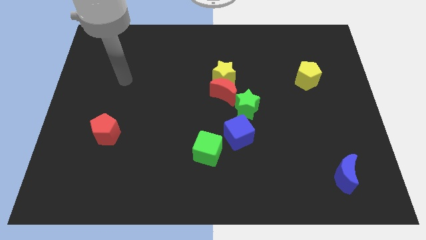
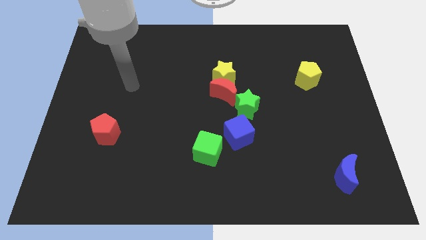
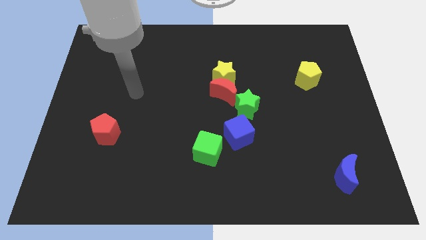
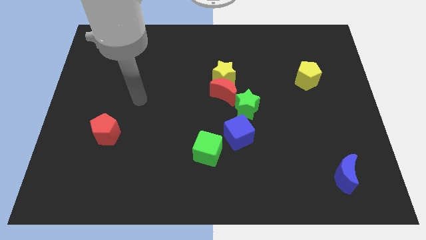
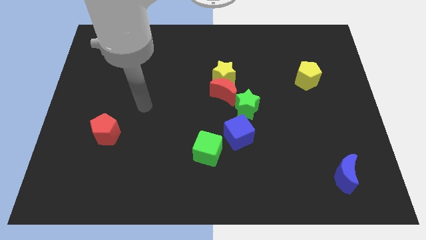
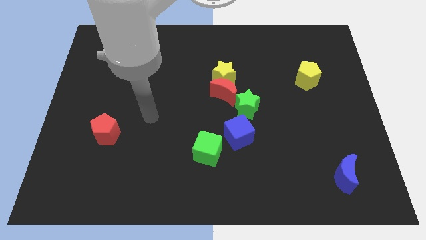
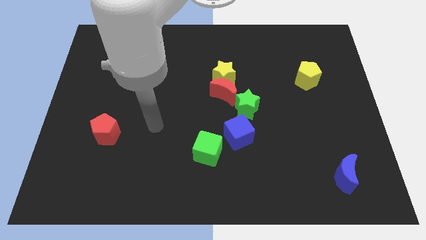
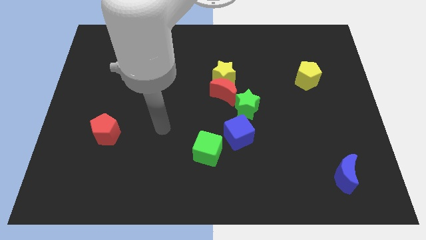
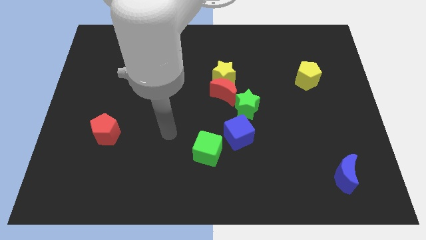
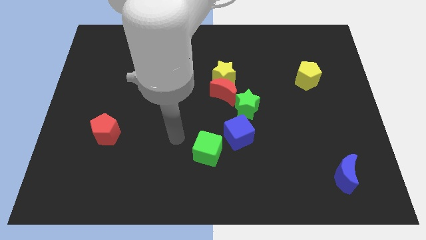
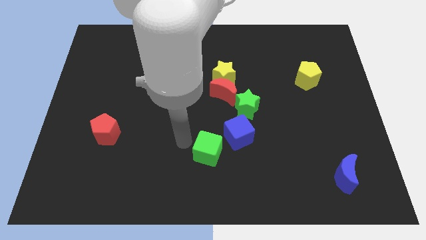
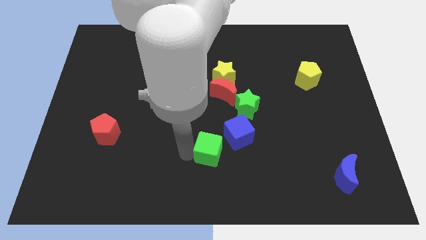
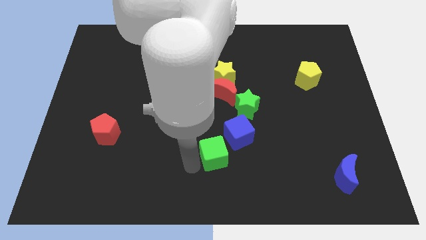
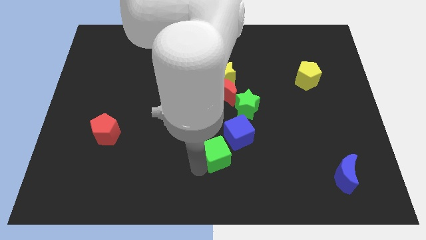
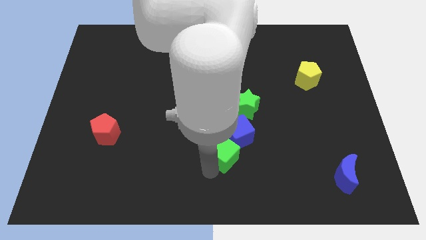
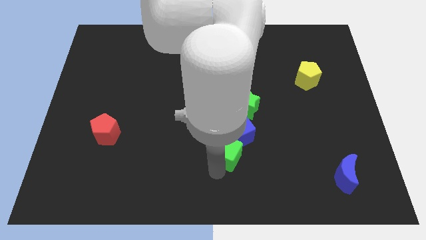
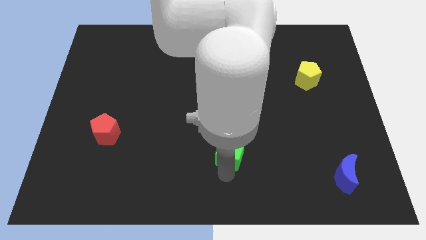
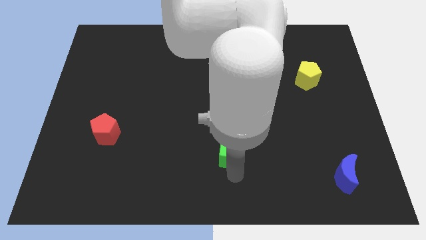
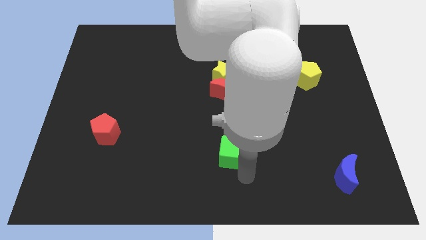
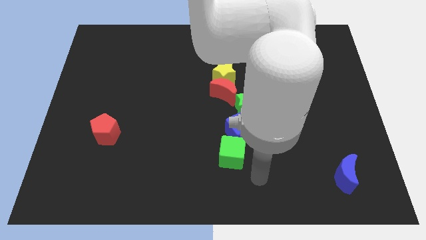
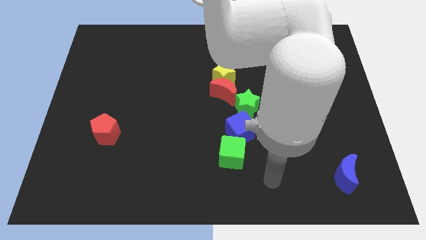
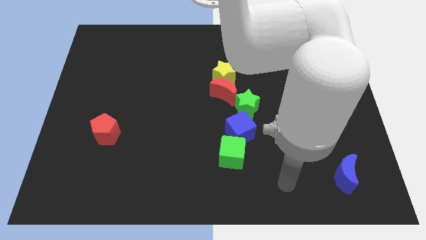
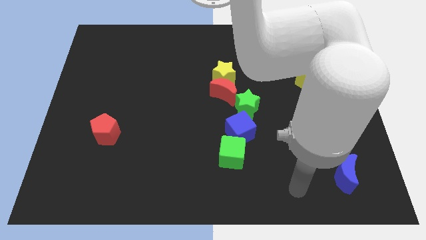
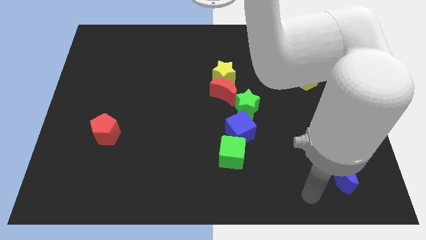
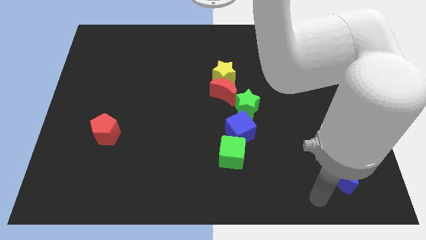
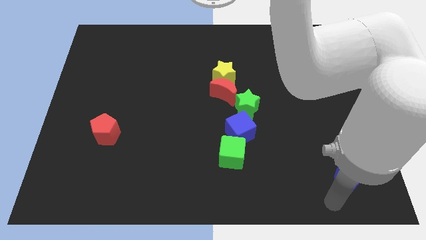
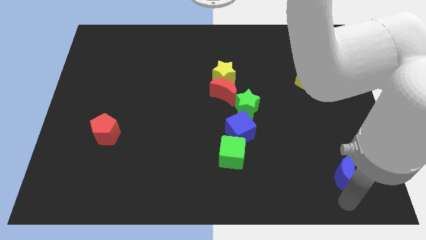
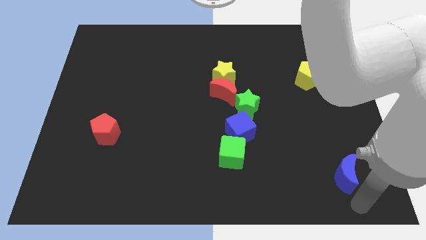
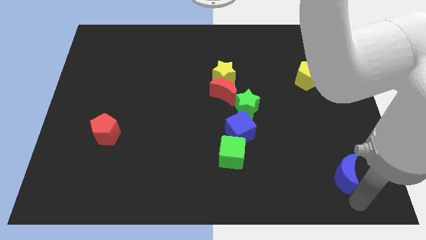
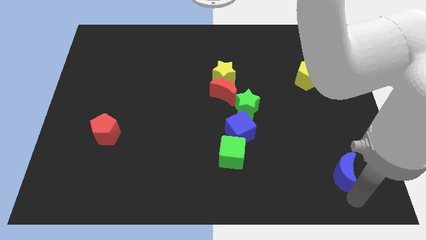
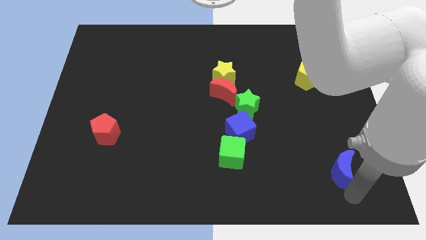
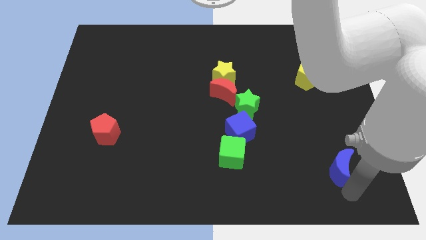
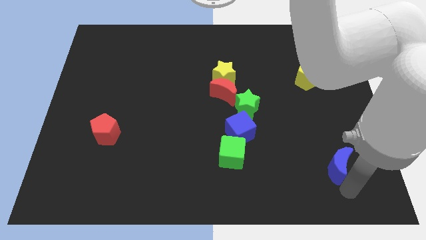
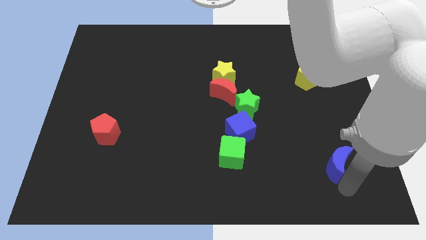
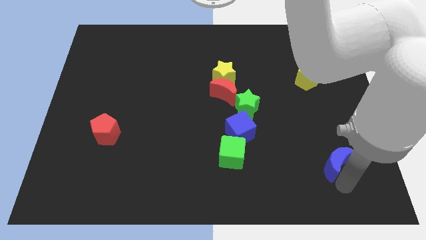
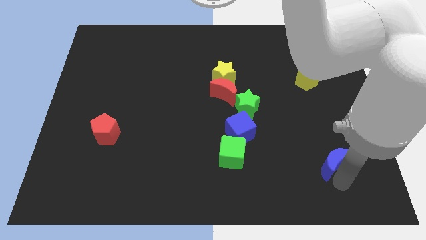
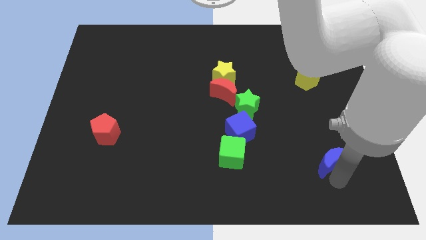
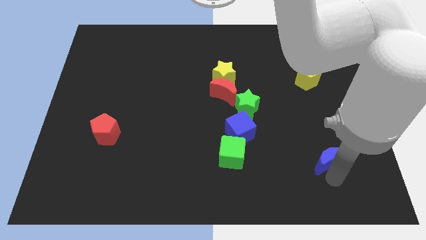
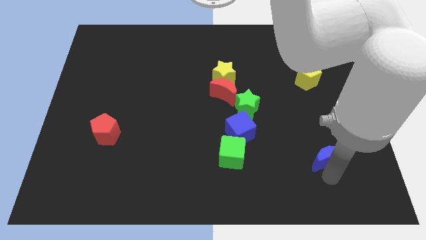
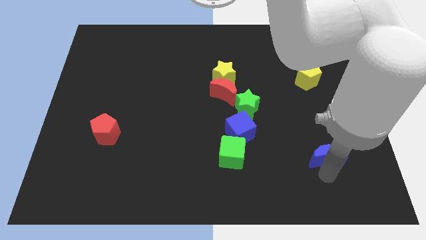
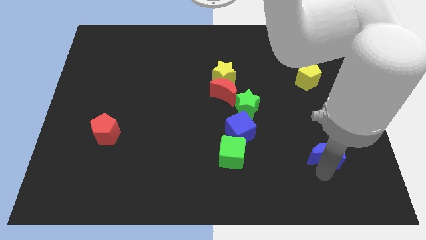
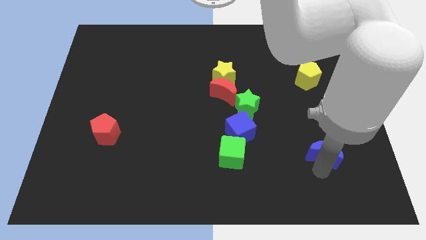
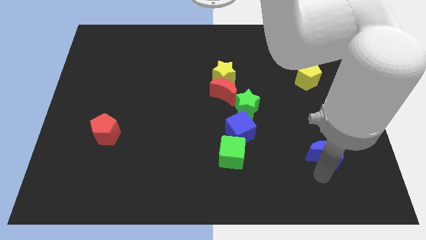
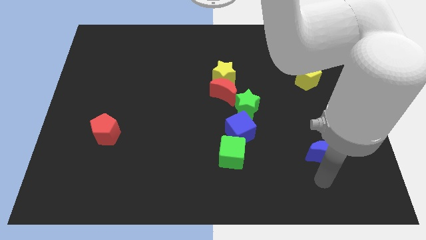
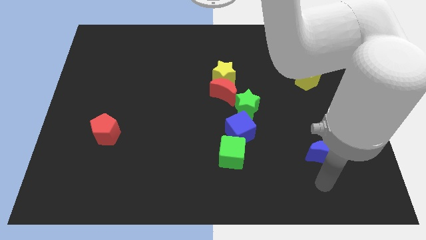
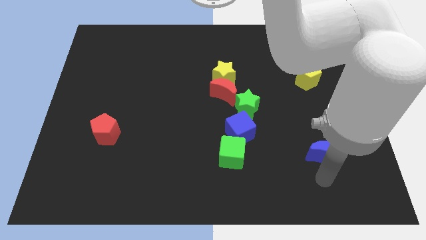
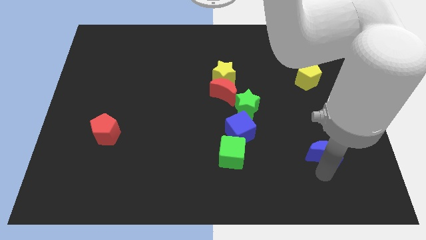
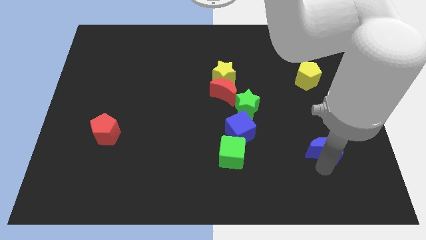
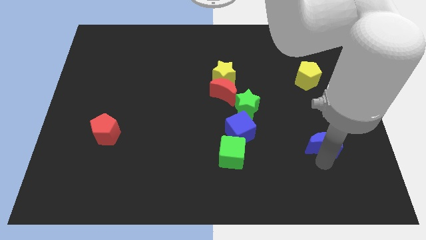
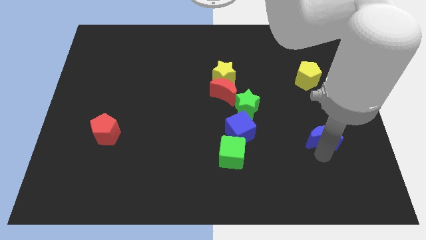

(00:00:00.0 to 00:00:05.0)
slightly push the blue moon upwards

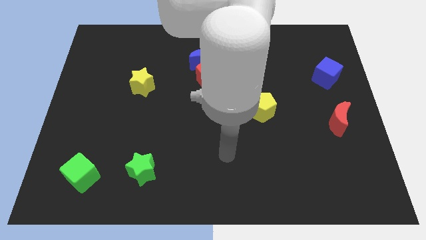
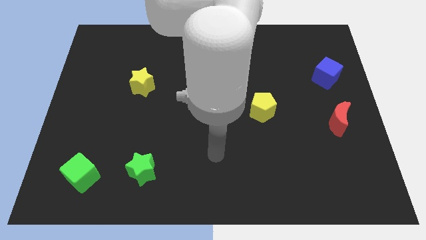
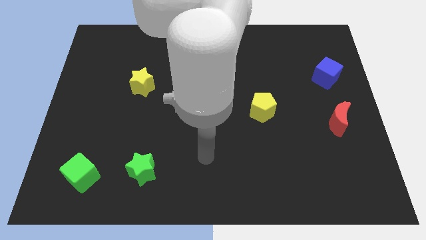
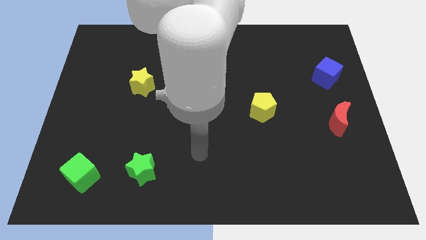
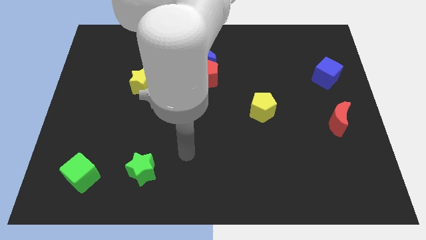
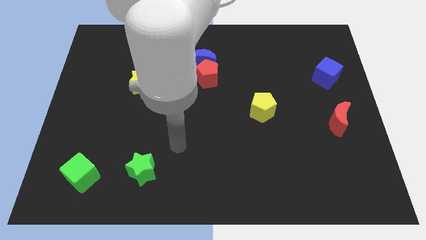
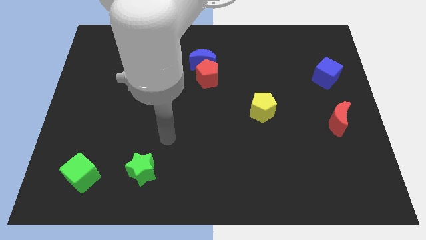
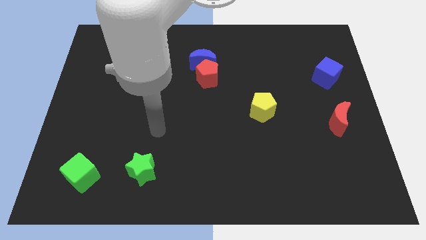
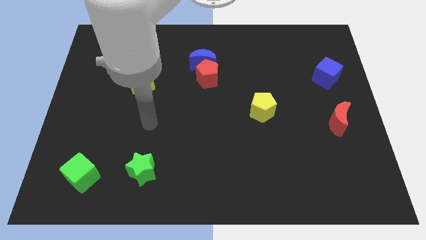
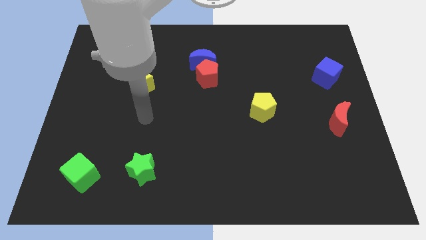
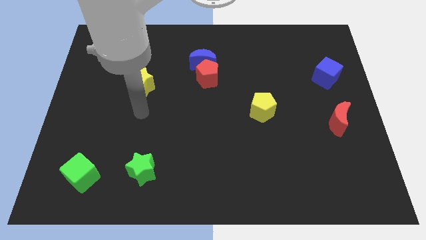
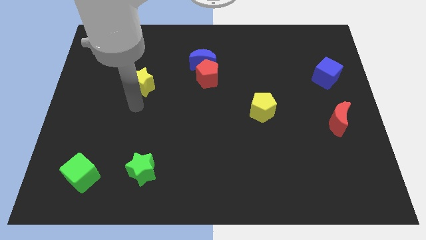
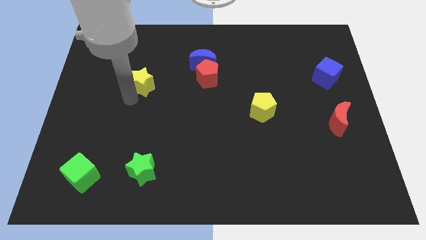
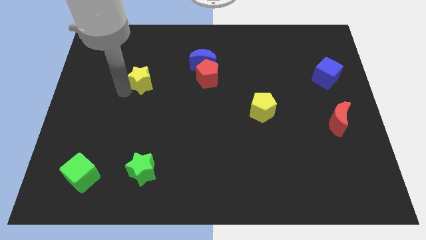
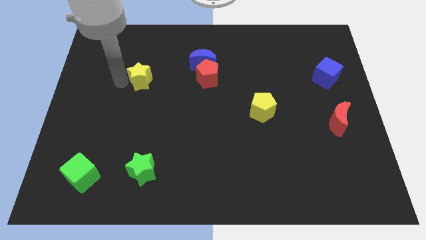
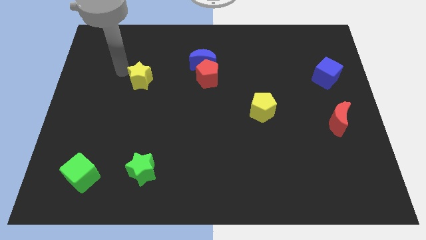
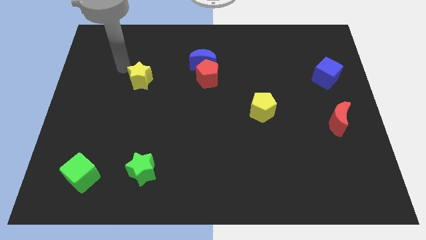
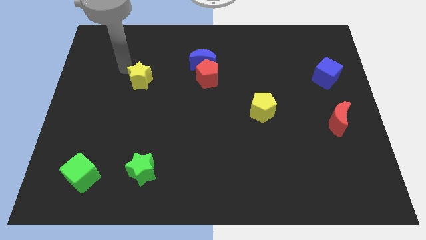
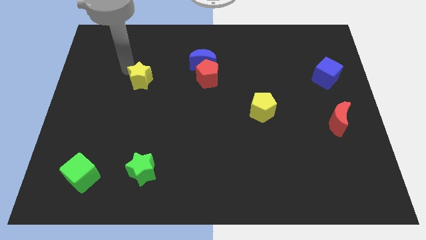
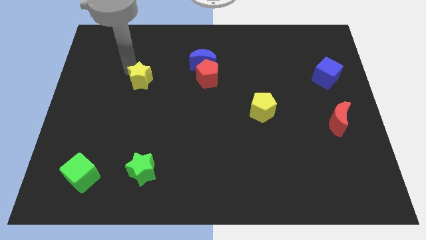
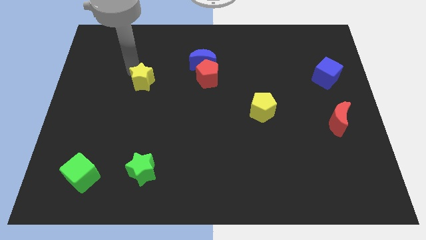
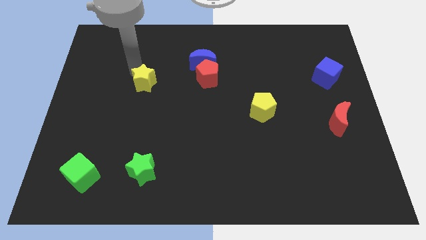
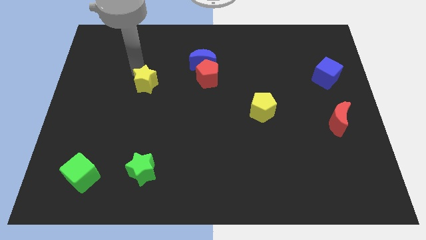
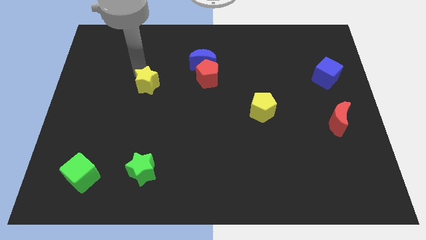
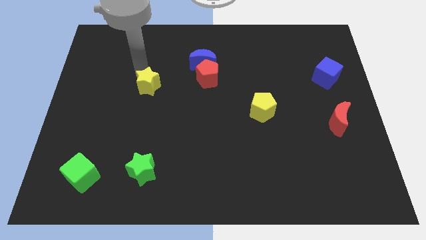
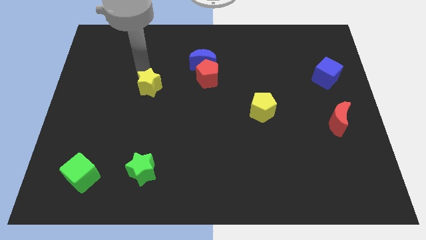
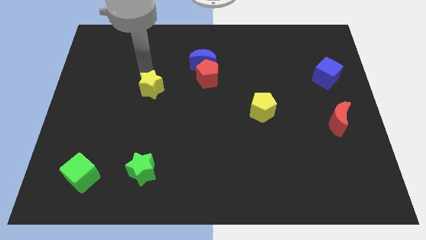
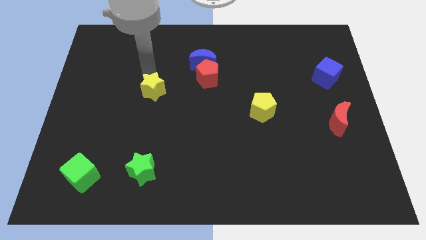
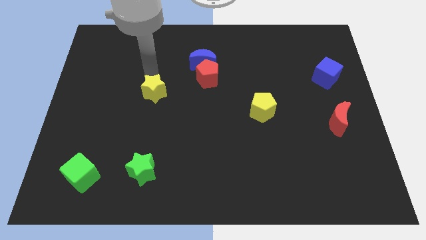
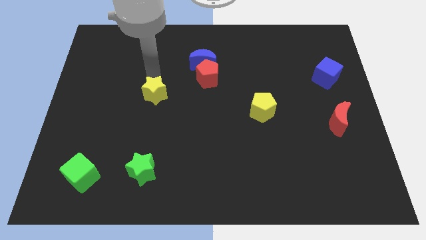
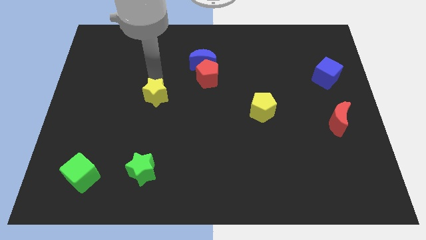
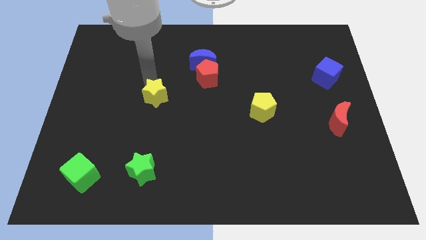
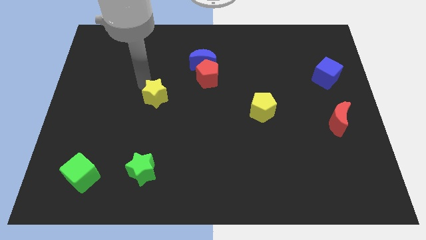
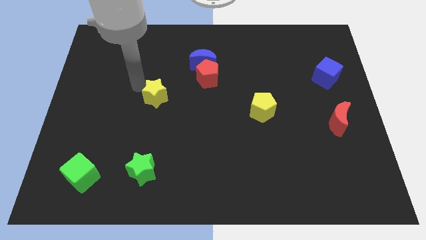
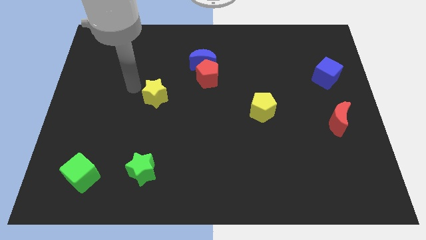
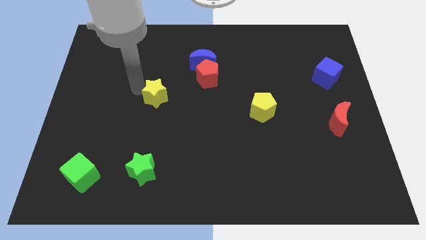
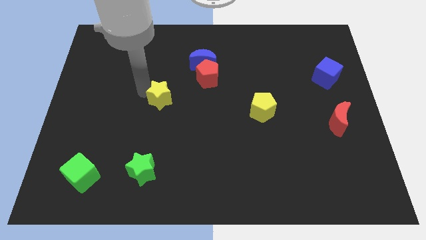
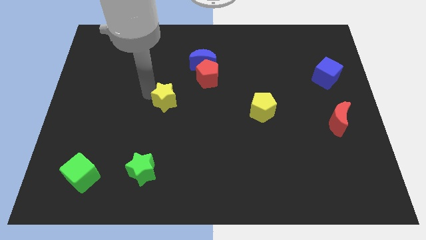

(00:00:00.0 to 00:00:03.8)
slightly move the yellow star down and then to the right
